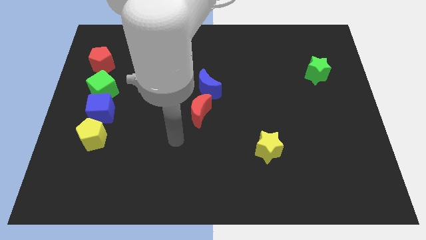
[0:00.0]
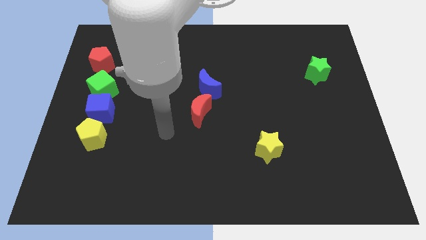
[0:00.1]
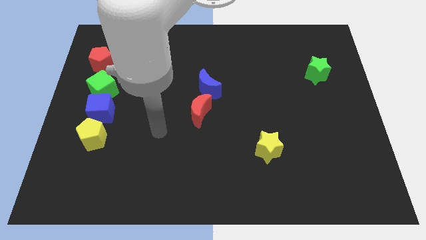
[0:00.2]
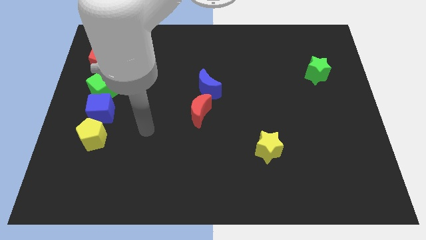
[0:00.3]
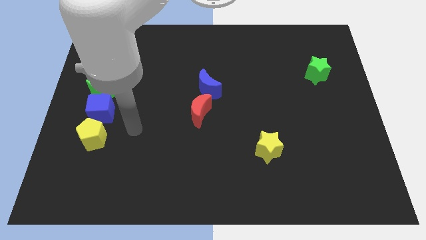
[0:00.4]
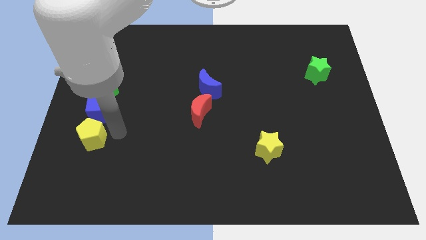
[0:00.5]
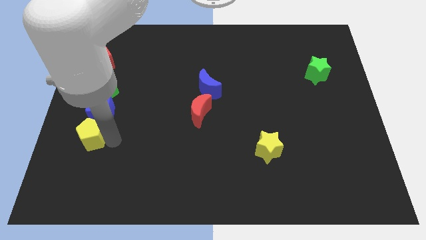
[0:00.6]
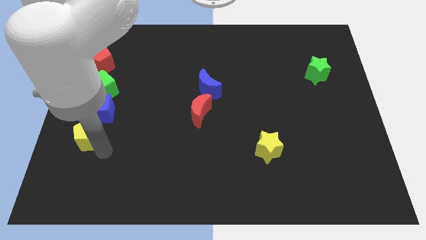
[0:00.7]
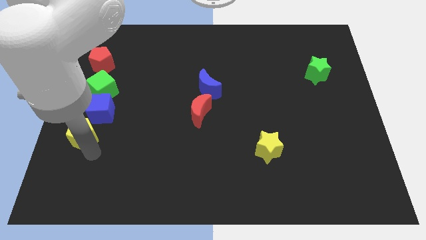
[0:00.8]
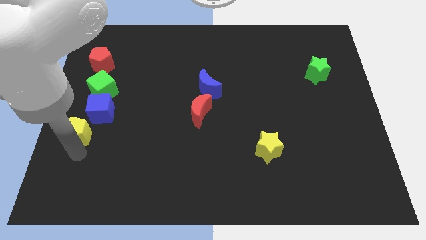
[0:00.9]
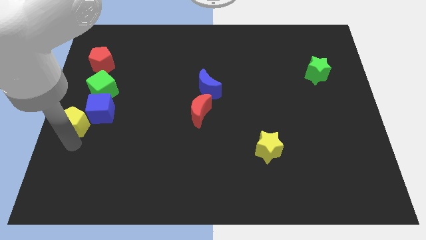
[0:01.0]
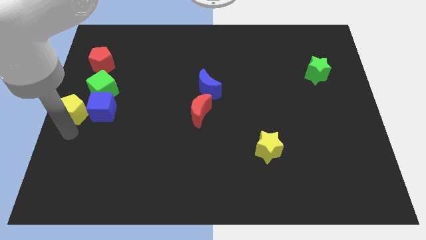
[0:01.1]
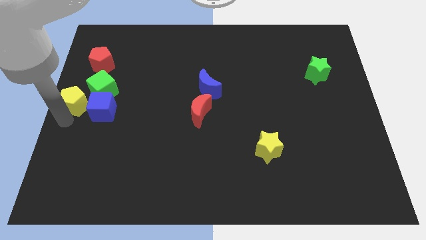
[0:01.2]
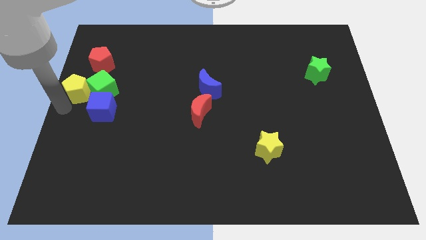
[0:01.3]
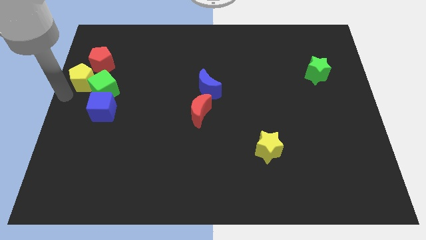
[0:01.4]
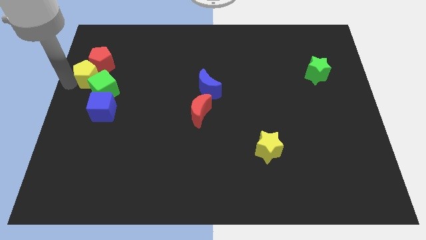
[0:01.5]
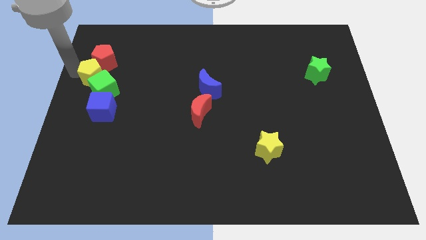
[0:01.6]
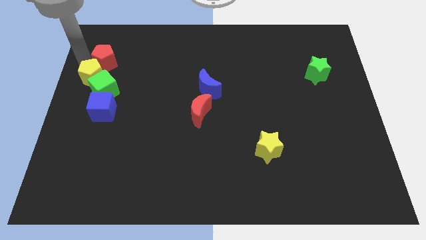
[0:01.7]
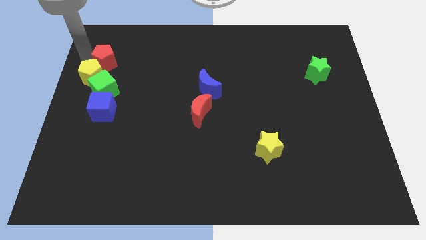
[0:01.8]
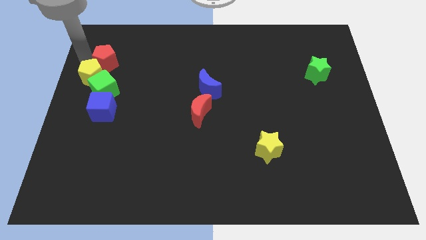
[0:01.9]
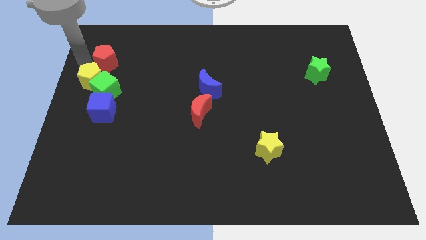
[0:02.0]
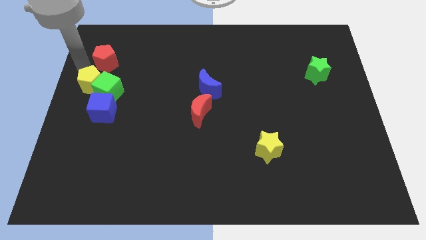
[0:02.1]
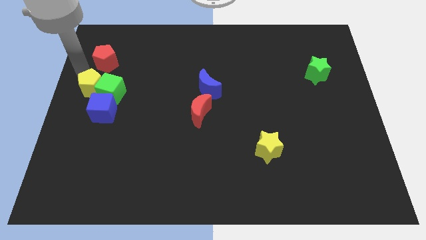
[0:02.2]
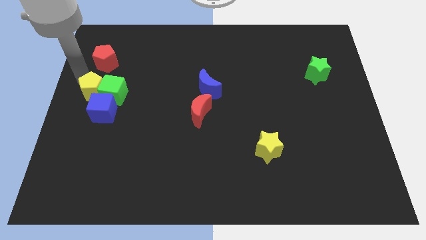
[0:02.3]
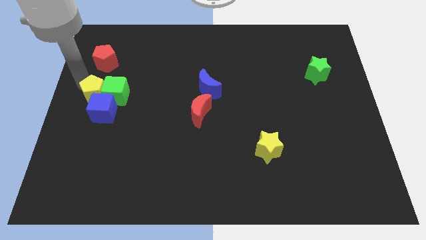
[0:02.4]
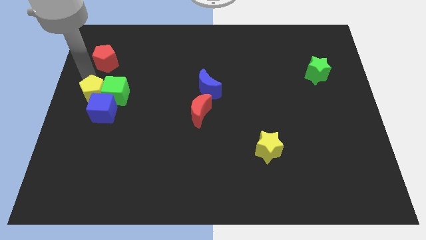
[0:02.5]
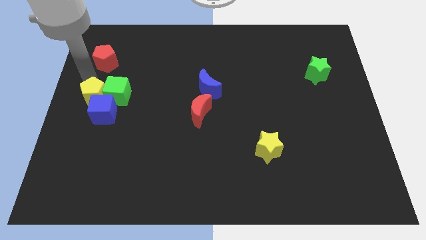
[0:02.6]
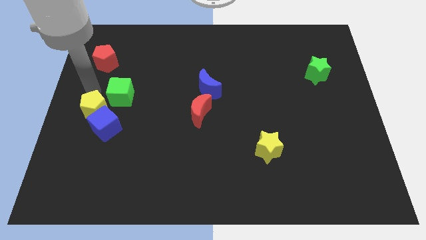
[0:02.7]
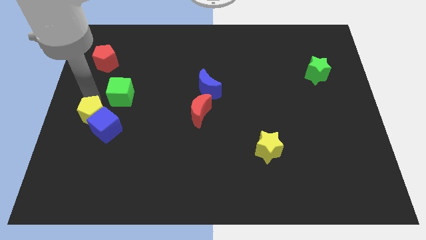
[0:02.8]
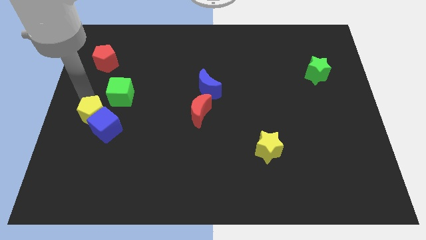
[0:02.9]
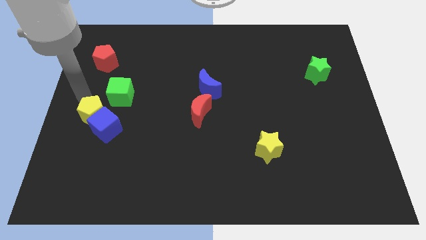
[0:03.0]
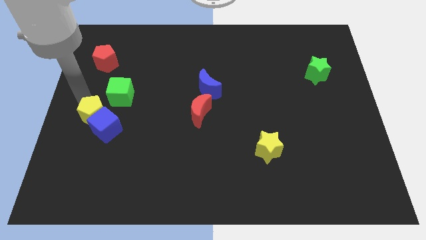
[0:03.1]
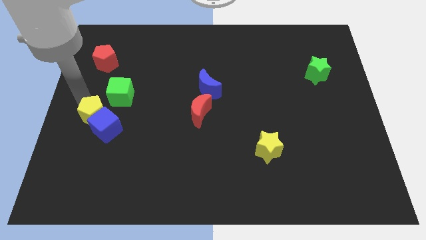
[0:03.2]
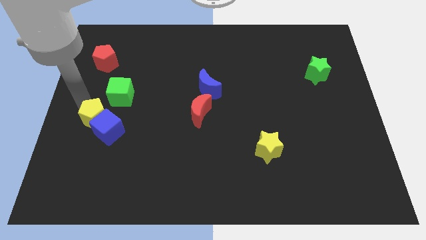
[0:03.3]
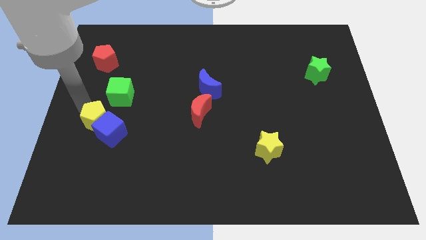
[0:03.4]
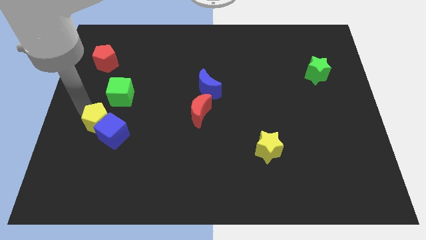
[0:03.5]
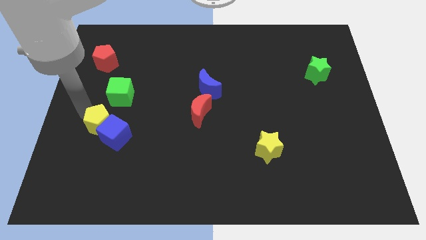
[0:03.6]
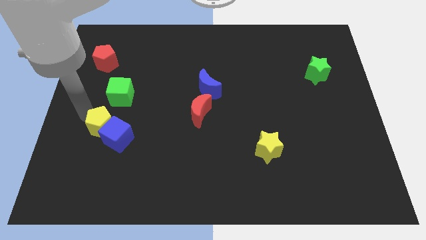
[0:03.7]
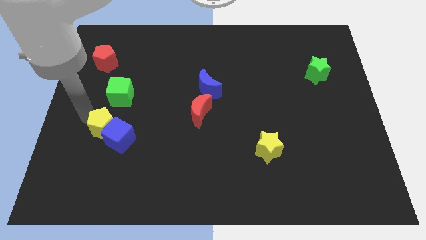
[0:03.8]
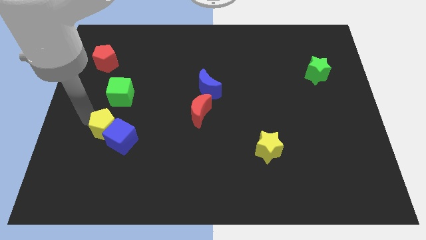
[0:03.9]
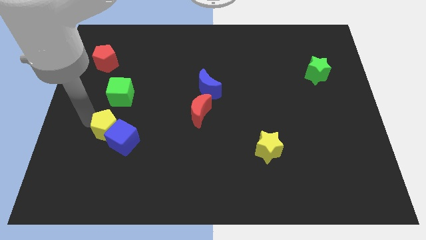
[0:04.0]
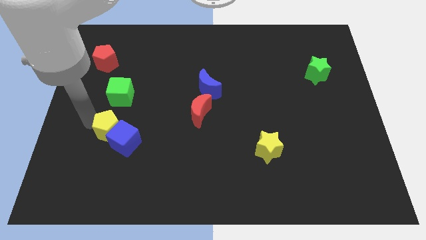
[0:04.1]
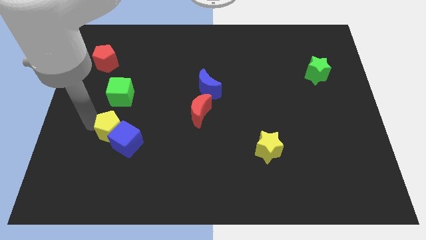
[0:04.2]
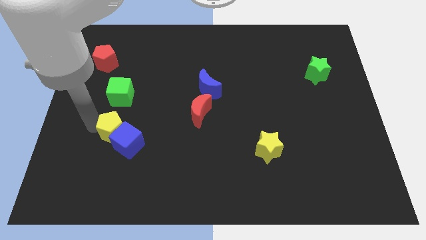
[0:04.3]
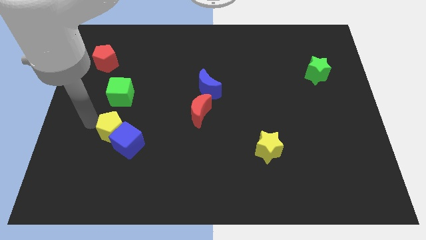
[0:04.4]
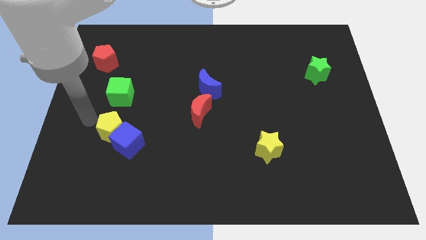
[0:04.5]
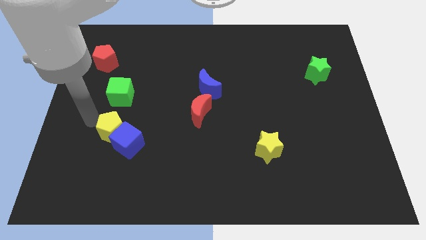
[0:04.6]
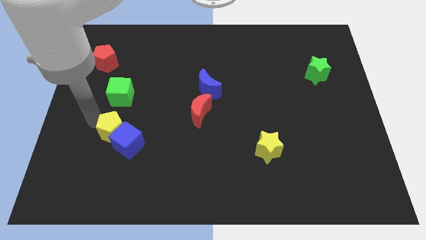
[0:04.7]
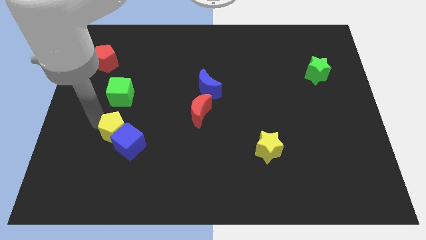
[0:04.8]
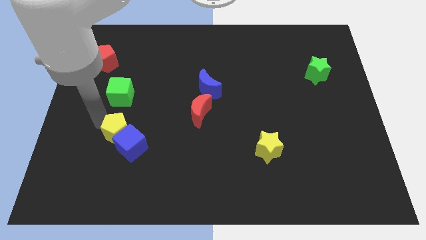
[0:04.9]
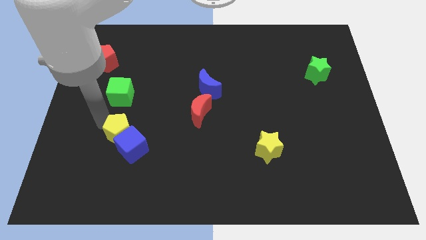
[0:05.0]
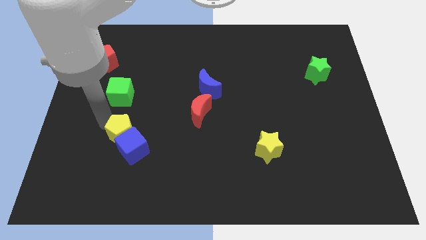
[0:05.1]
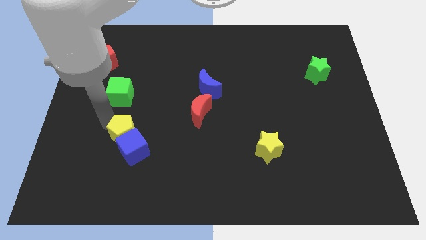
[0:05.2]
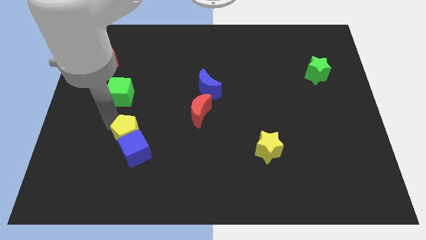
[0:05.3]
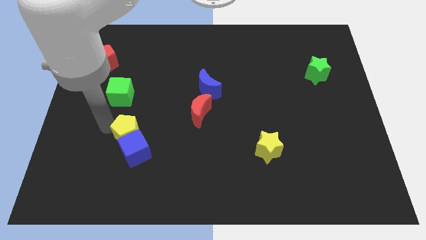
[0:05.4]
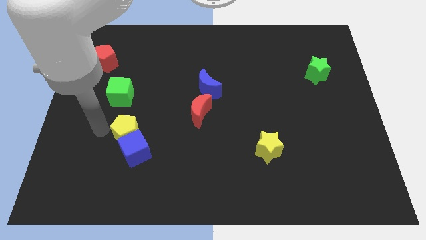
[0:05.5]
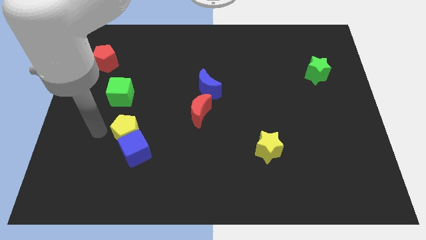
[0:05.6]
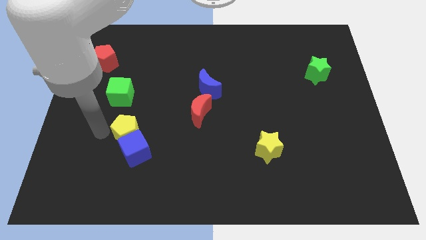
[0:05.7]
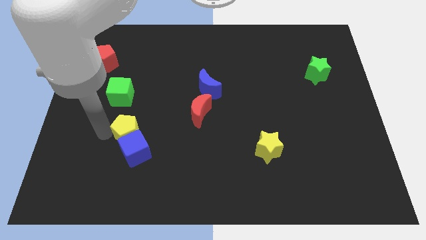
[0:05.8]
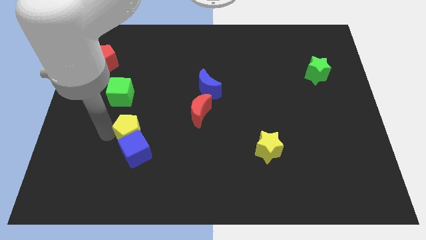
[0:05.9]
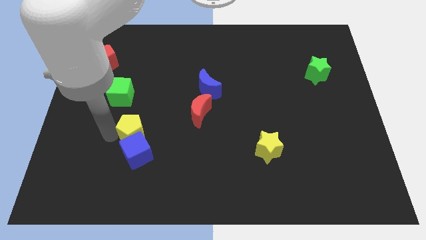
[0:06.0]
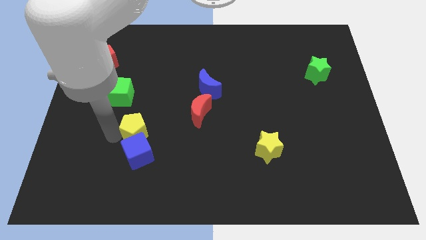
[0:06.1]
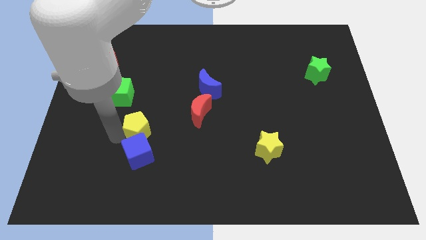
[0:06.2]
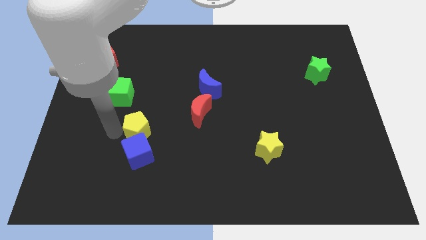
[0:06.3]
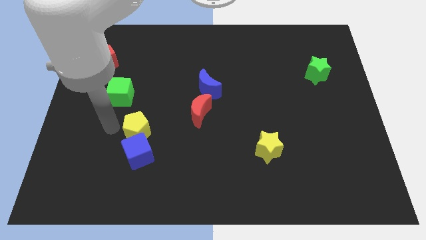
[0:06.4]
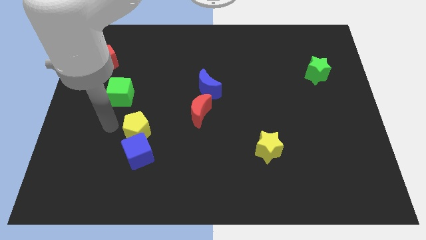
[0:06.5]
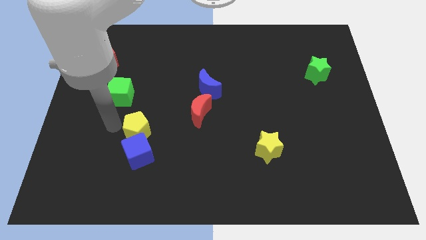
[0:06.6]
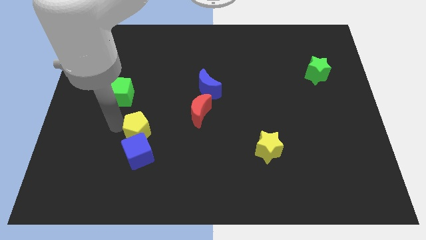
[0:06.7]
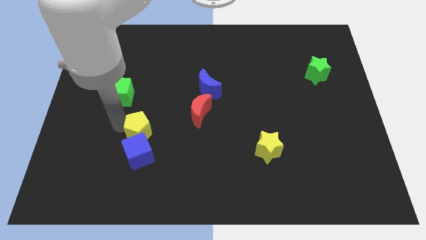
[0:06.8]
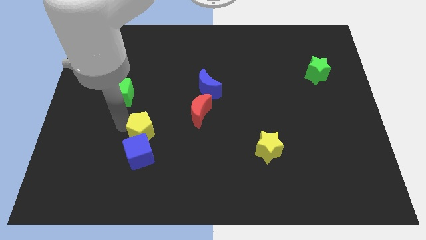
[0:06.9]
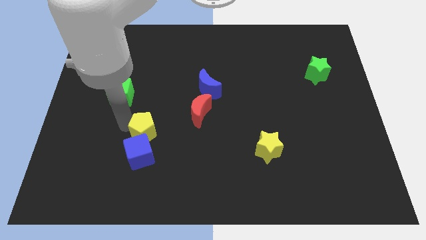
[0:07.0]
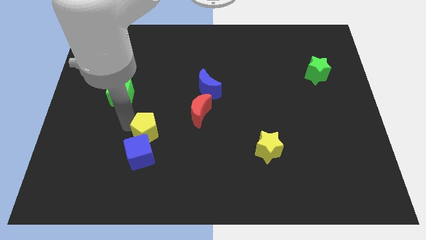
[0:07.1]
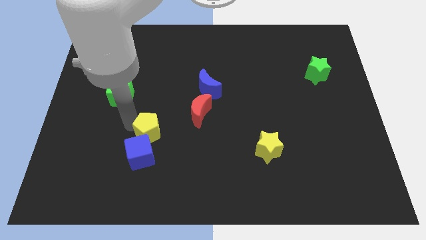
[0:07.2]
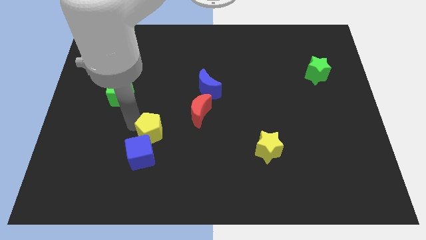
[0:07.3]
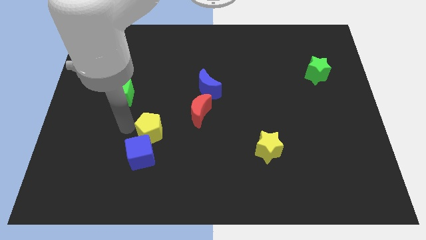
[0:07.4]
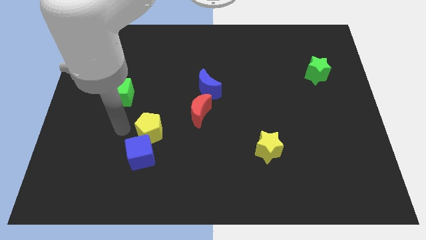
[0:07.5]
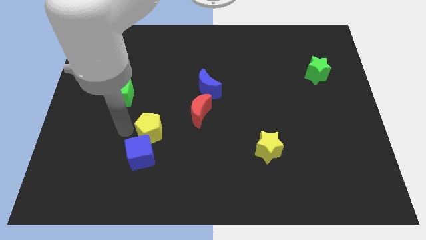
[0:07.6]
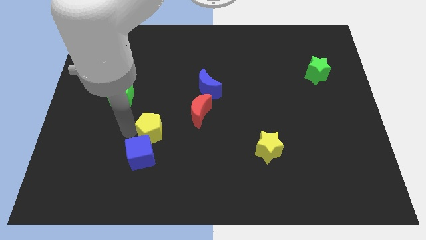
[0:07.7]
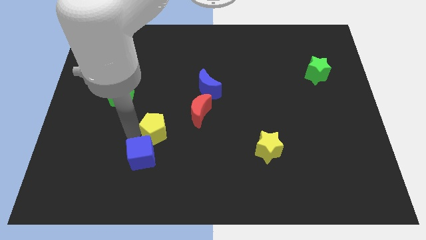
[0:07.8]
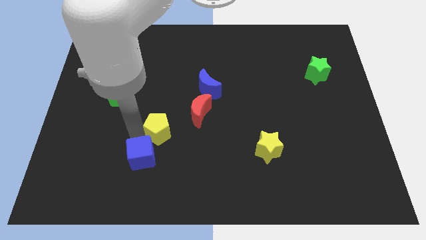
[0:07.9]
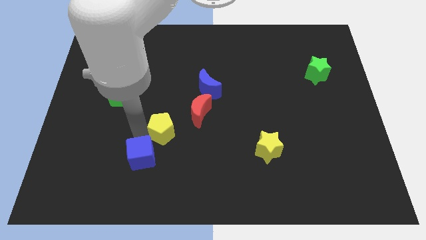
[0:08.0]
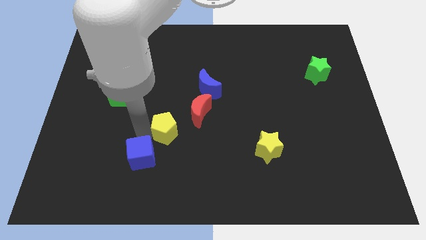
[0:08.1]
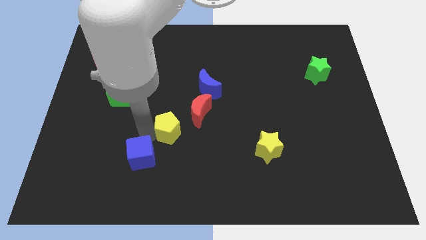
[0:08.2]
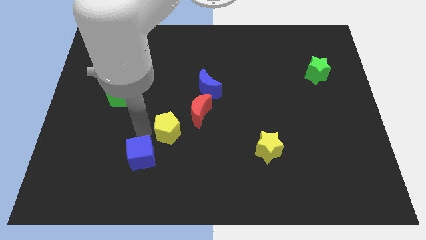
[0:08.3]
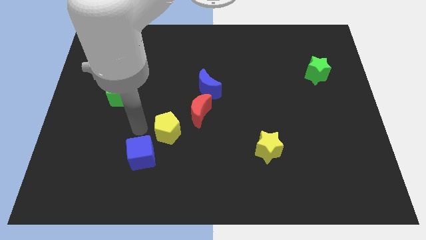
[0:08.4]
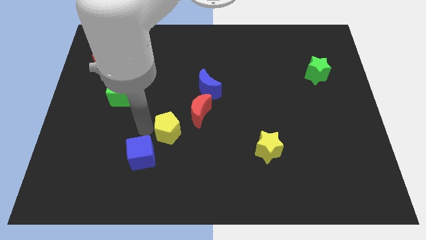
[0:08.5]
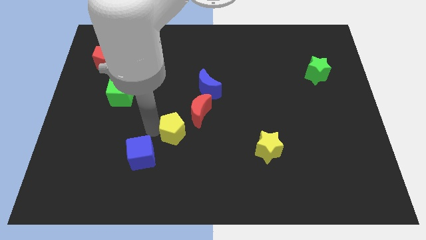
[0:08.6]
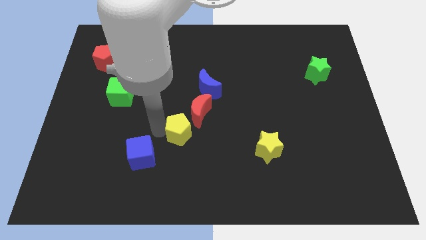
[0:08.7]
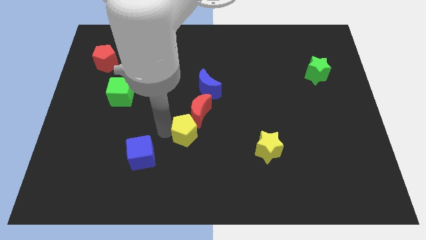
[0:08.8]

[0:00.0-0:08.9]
push the yellow pentagon to the right
